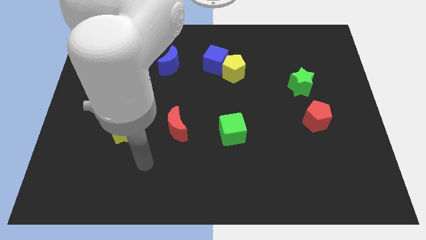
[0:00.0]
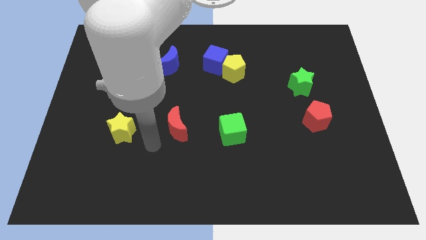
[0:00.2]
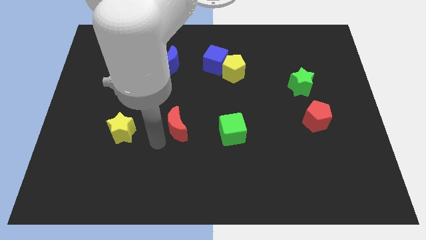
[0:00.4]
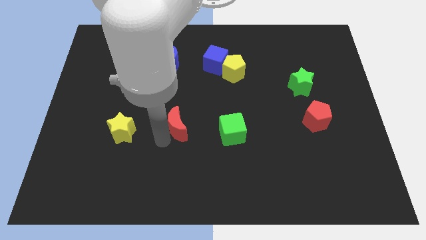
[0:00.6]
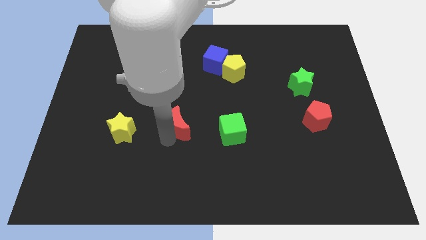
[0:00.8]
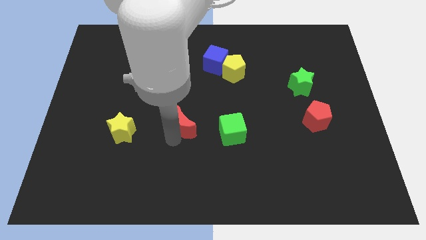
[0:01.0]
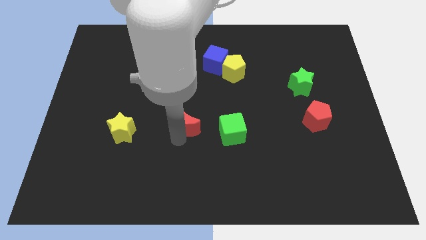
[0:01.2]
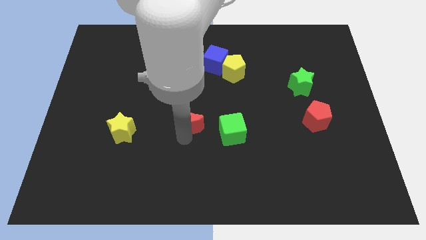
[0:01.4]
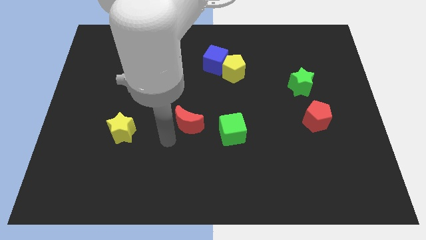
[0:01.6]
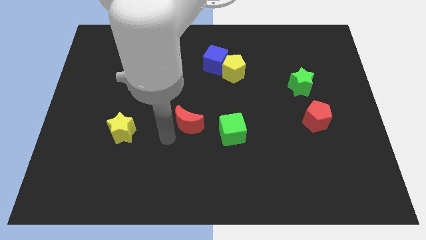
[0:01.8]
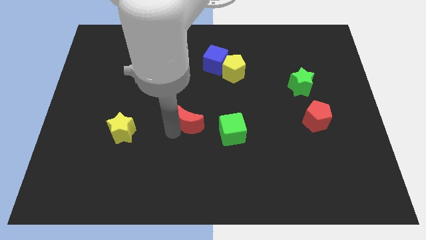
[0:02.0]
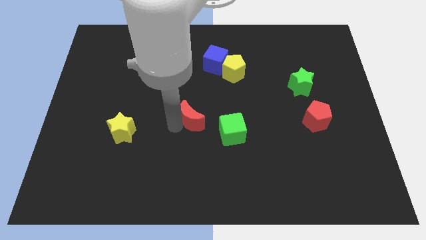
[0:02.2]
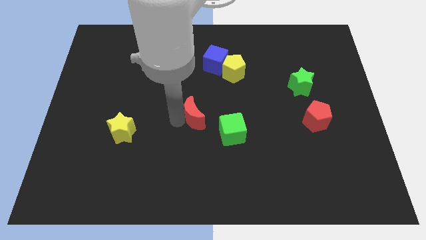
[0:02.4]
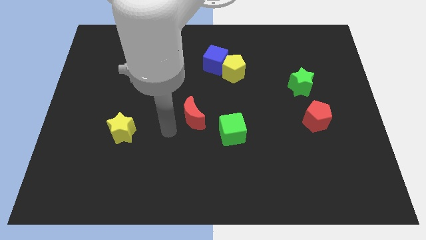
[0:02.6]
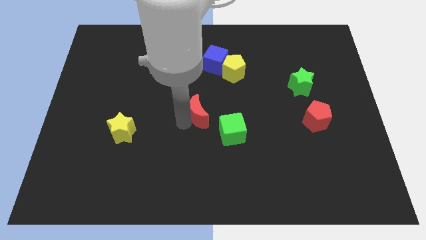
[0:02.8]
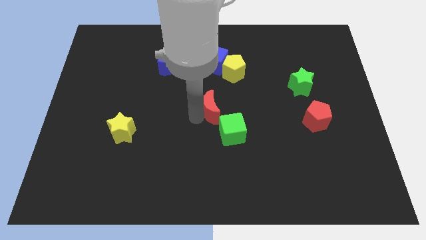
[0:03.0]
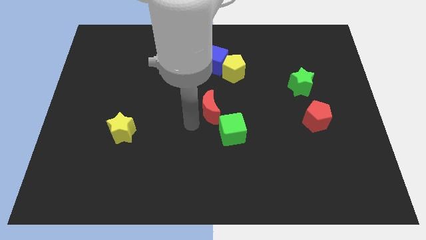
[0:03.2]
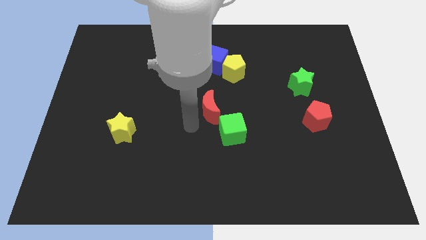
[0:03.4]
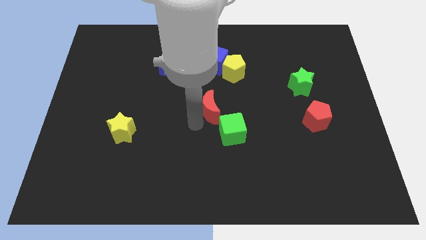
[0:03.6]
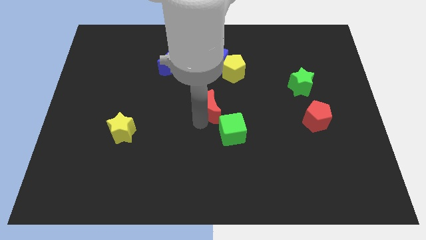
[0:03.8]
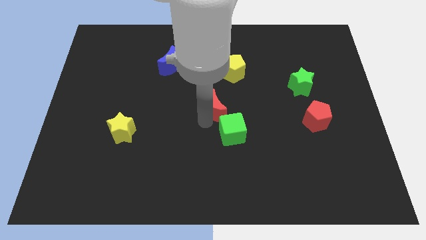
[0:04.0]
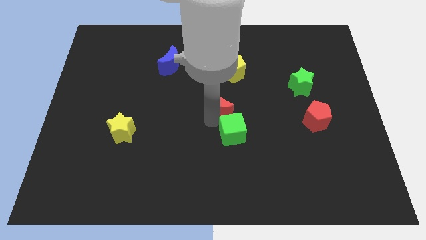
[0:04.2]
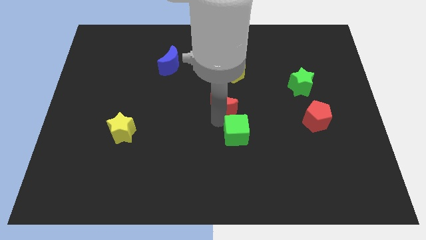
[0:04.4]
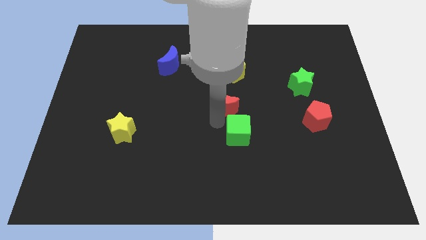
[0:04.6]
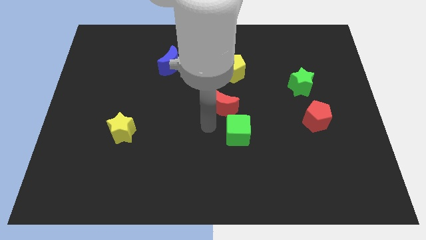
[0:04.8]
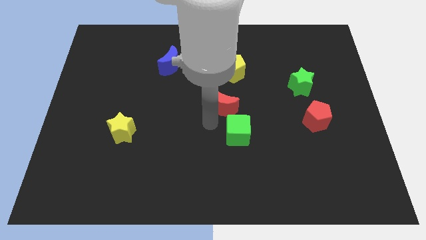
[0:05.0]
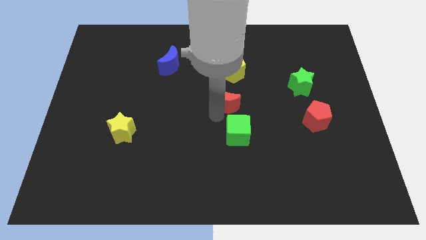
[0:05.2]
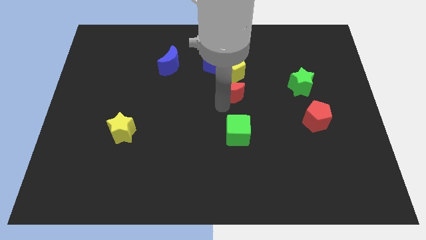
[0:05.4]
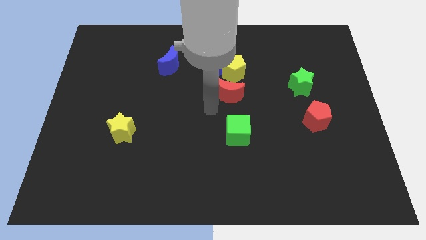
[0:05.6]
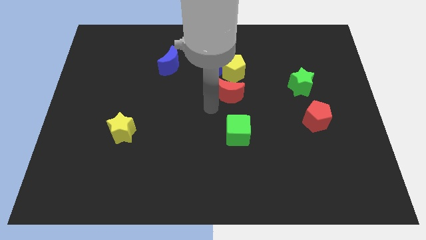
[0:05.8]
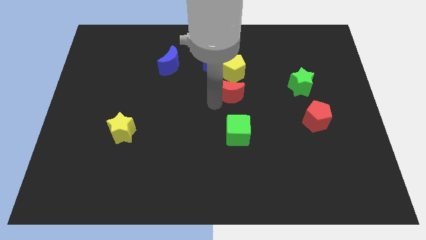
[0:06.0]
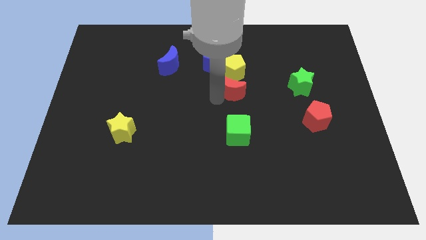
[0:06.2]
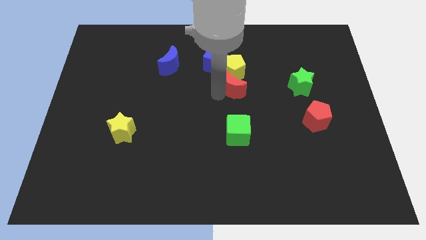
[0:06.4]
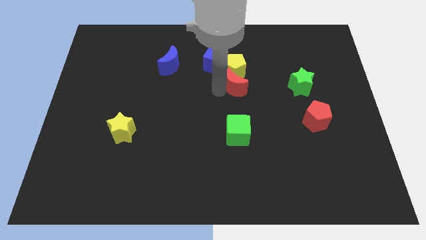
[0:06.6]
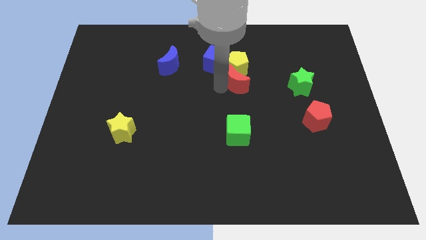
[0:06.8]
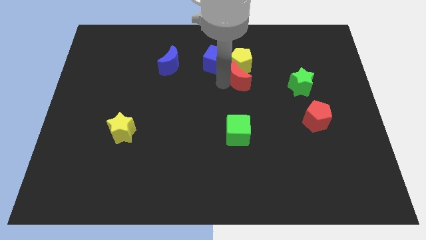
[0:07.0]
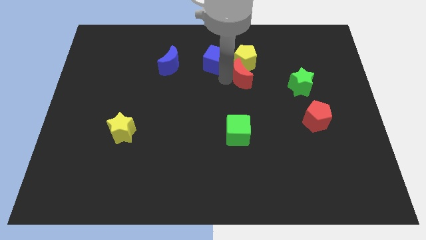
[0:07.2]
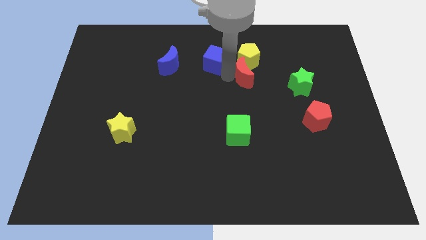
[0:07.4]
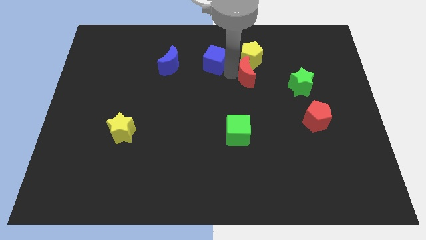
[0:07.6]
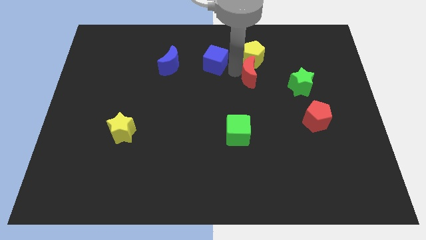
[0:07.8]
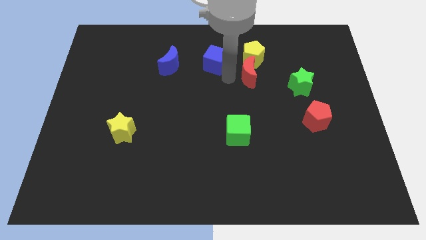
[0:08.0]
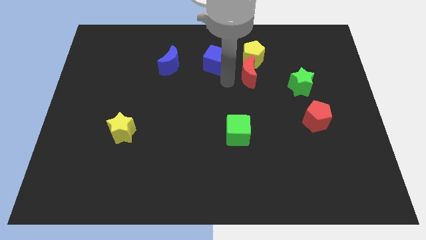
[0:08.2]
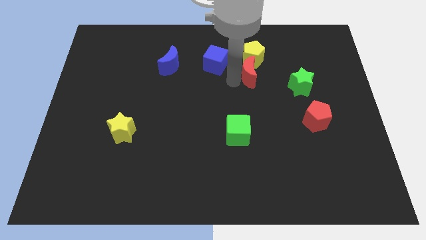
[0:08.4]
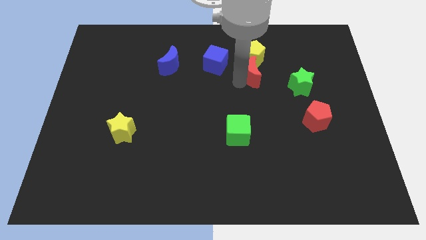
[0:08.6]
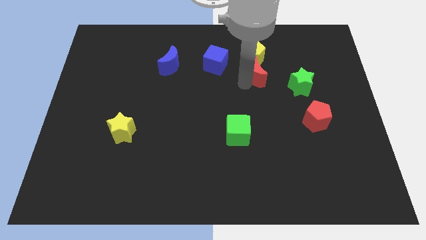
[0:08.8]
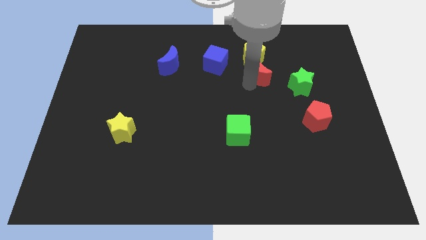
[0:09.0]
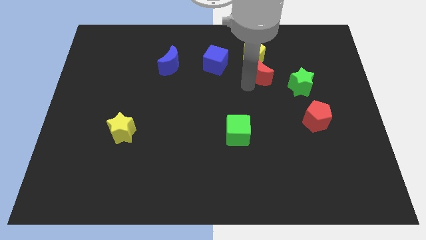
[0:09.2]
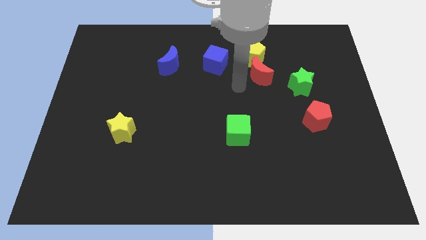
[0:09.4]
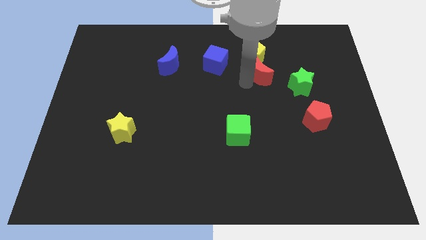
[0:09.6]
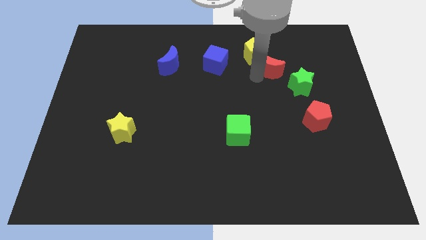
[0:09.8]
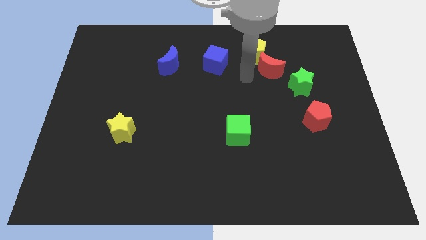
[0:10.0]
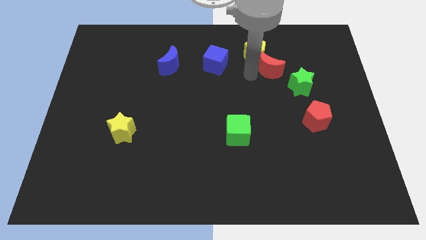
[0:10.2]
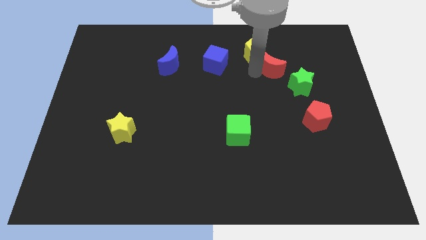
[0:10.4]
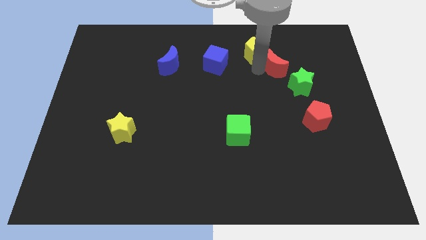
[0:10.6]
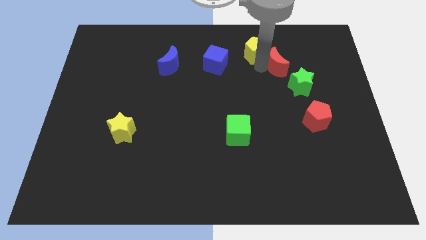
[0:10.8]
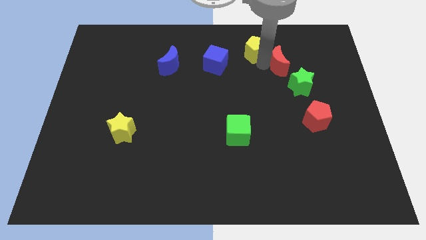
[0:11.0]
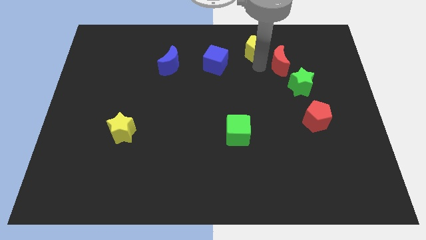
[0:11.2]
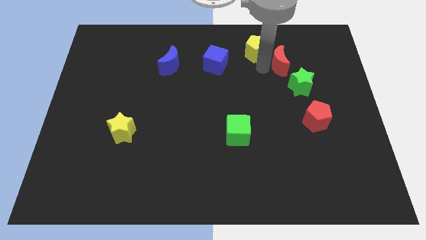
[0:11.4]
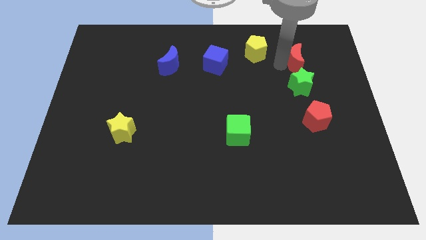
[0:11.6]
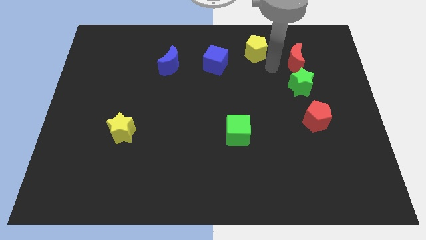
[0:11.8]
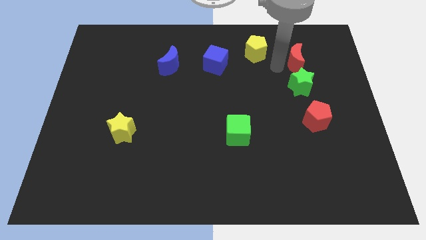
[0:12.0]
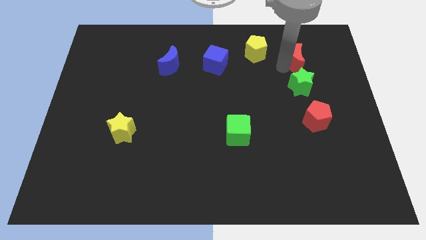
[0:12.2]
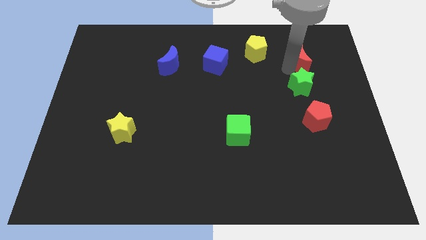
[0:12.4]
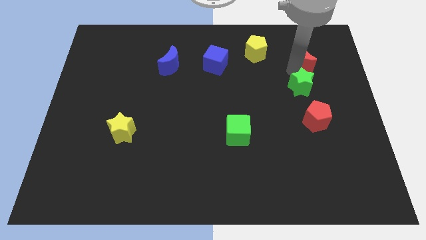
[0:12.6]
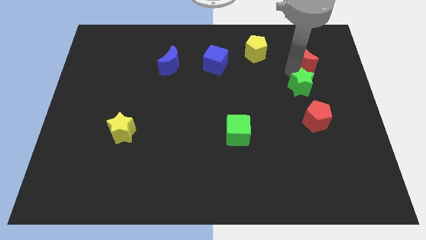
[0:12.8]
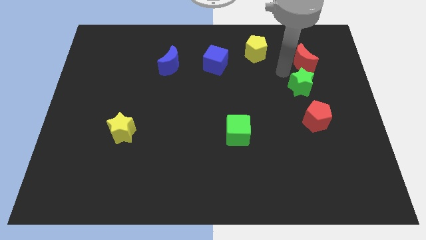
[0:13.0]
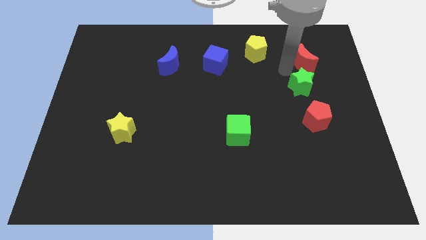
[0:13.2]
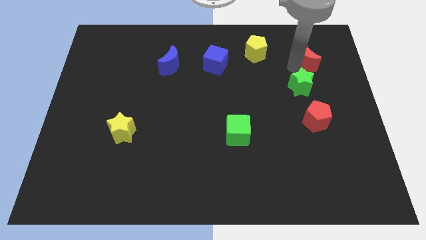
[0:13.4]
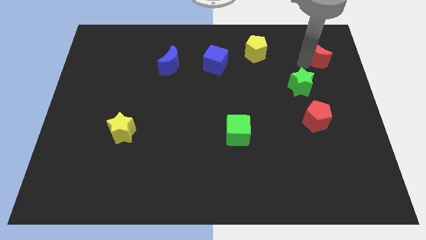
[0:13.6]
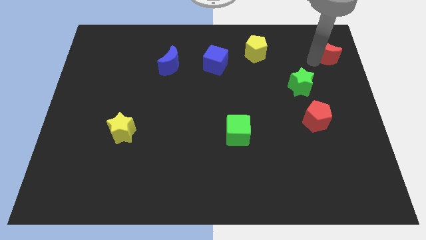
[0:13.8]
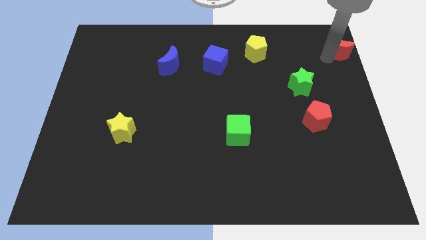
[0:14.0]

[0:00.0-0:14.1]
move the red moon to the upper right corner
